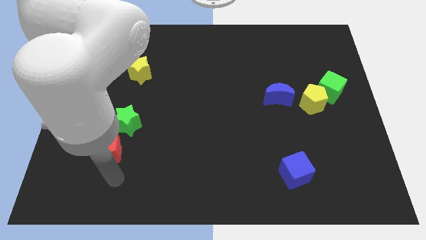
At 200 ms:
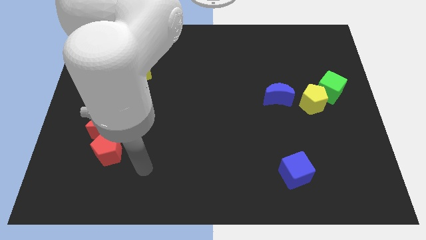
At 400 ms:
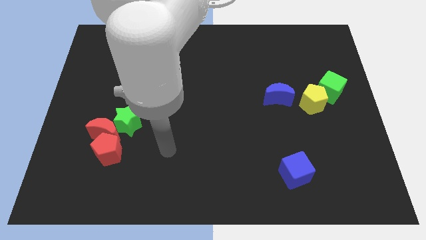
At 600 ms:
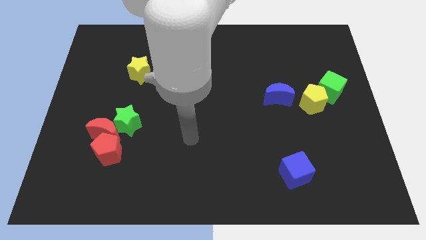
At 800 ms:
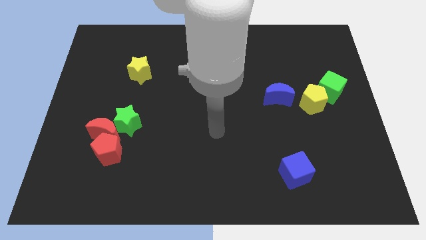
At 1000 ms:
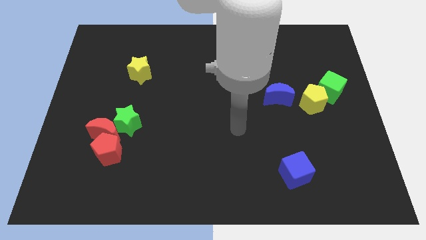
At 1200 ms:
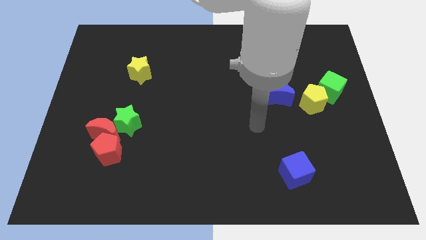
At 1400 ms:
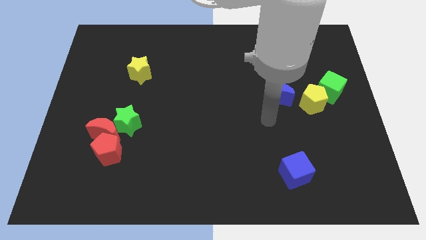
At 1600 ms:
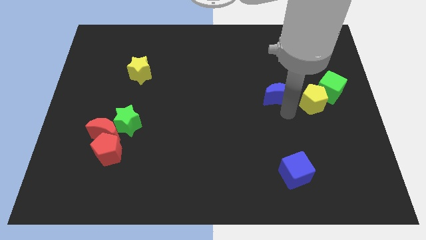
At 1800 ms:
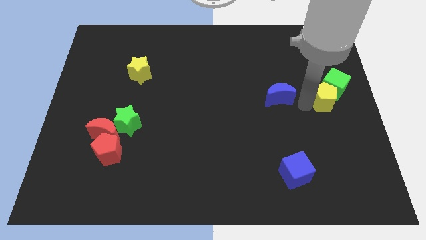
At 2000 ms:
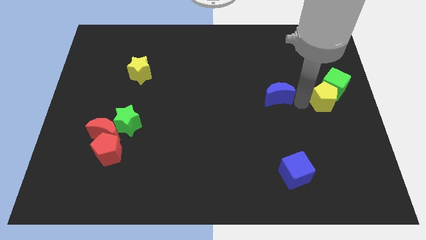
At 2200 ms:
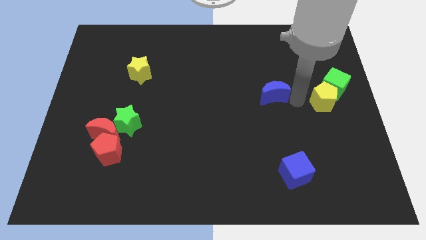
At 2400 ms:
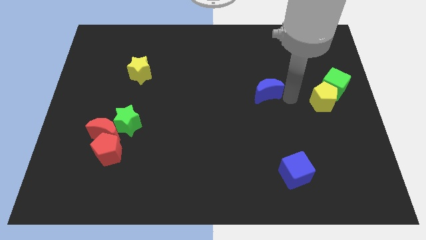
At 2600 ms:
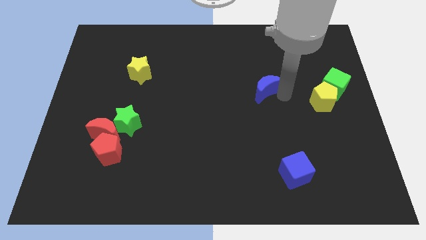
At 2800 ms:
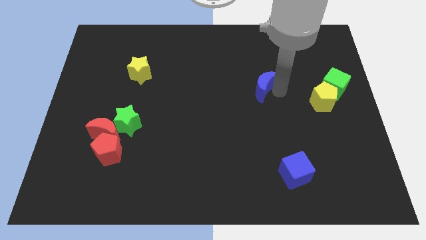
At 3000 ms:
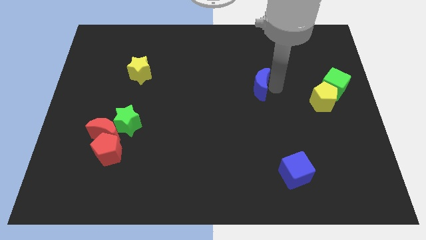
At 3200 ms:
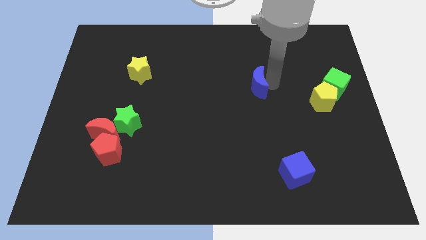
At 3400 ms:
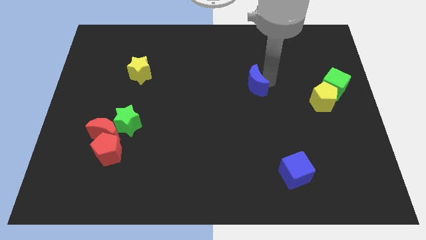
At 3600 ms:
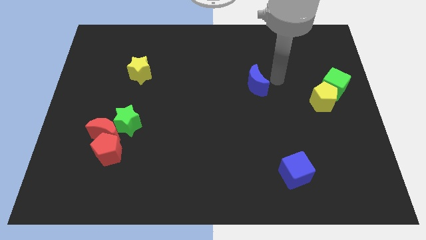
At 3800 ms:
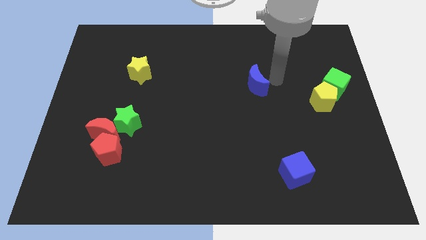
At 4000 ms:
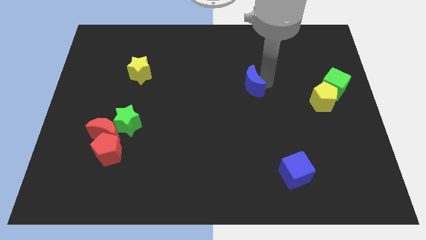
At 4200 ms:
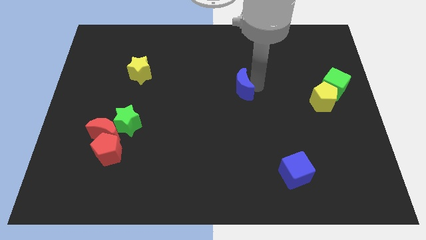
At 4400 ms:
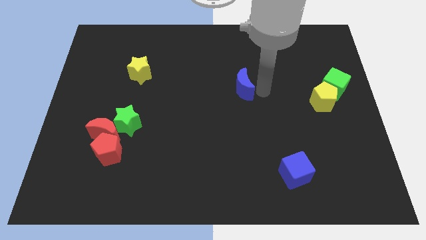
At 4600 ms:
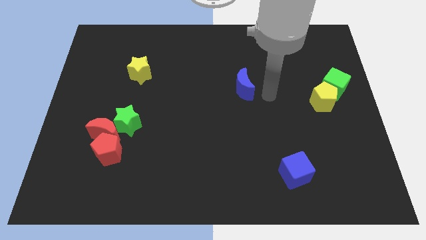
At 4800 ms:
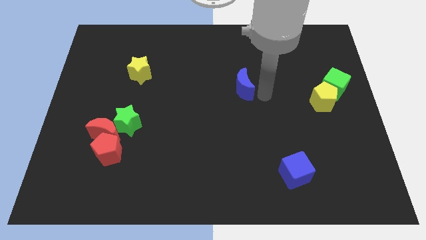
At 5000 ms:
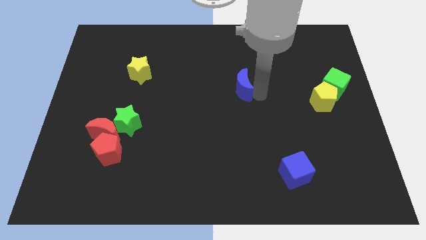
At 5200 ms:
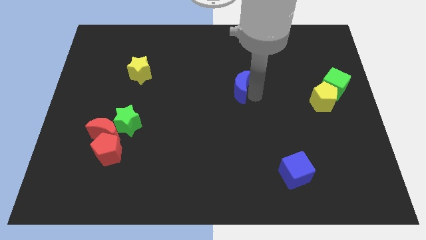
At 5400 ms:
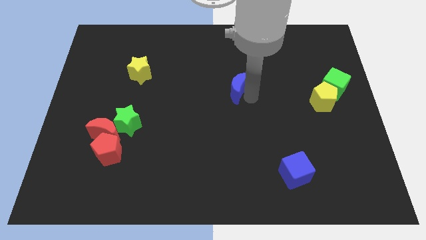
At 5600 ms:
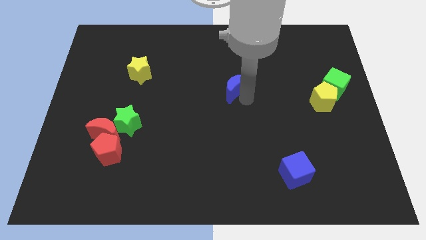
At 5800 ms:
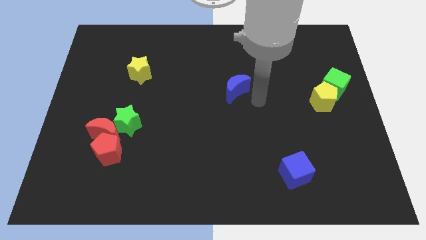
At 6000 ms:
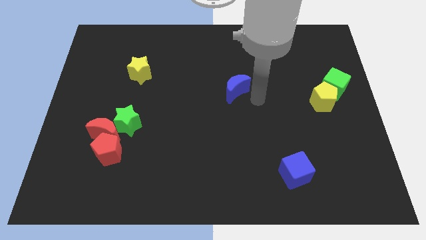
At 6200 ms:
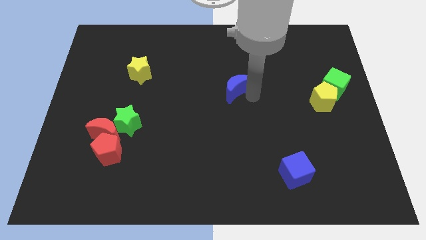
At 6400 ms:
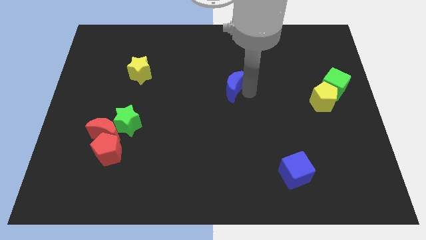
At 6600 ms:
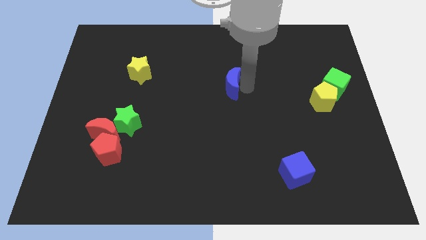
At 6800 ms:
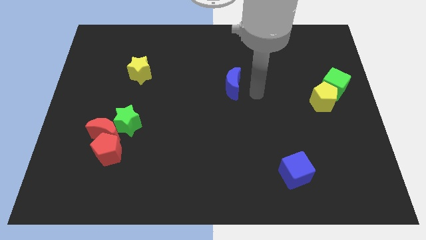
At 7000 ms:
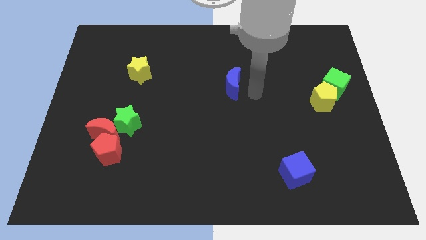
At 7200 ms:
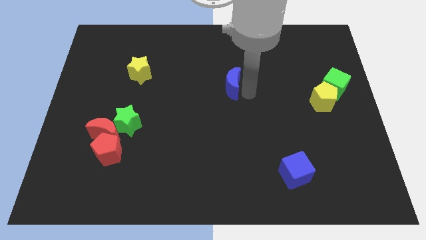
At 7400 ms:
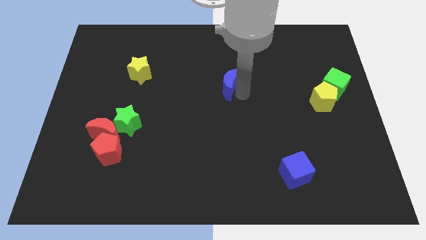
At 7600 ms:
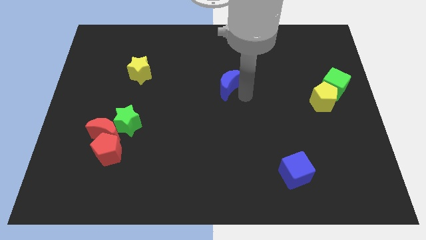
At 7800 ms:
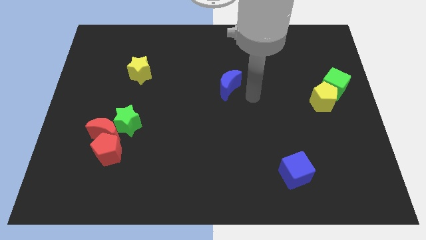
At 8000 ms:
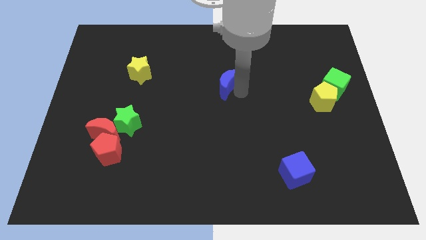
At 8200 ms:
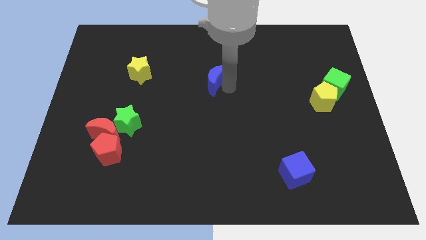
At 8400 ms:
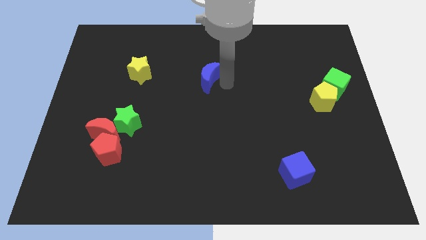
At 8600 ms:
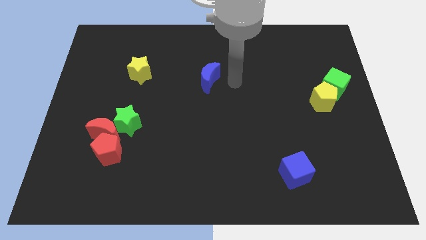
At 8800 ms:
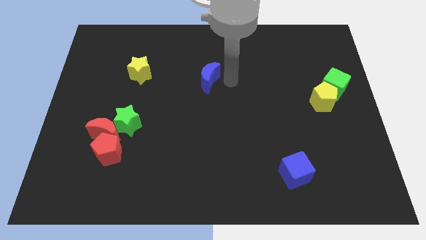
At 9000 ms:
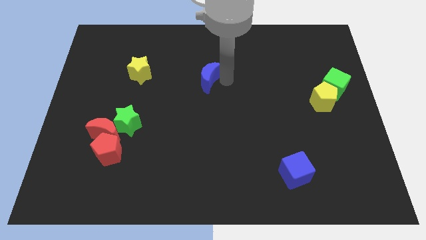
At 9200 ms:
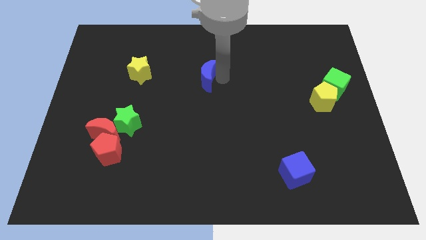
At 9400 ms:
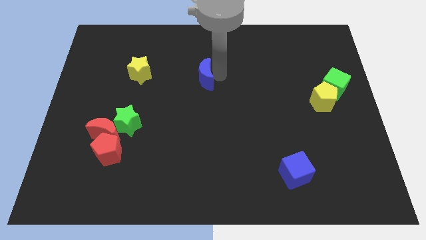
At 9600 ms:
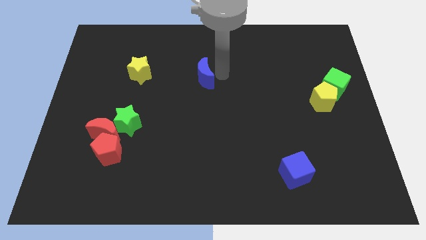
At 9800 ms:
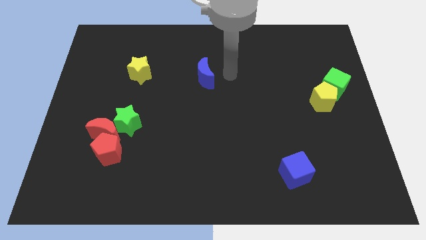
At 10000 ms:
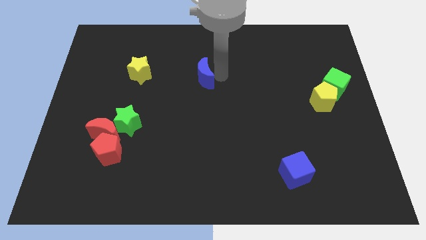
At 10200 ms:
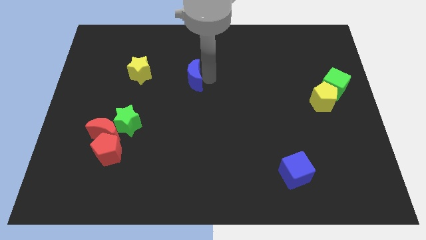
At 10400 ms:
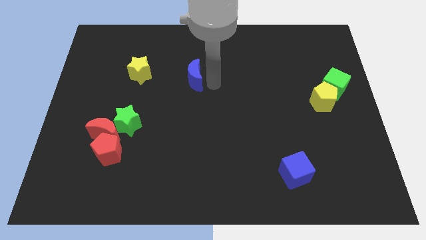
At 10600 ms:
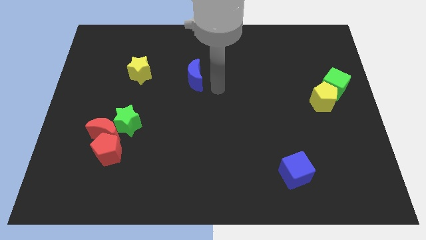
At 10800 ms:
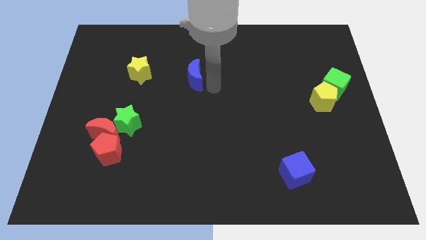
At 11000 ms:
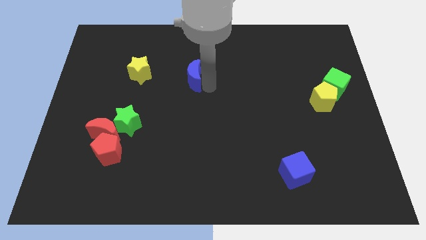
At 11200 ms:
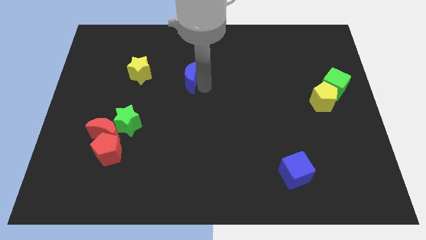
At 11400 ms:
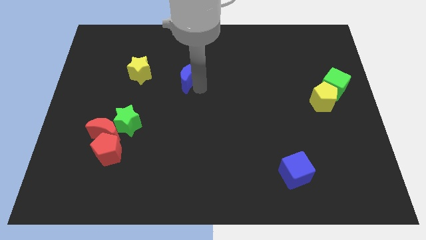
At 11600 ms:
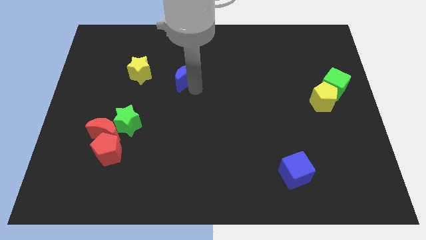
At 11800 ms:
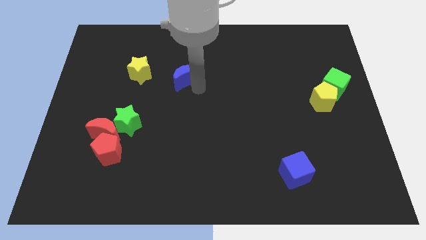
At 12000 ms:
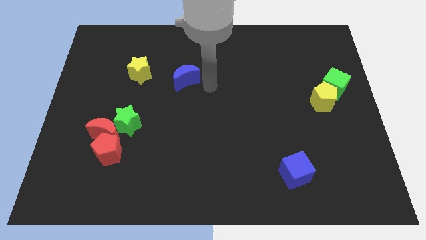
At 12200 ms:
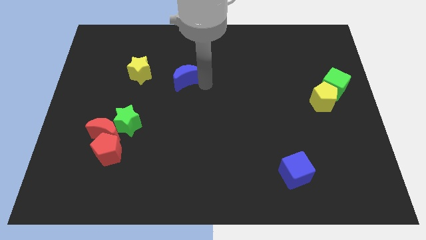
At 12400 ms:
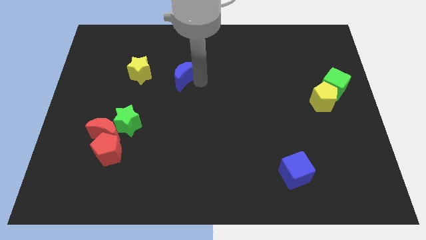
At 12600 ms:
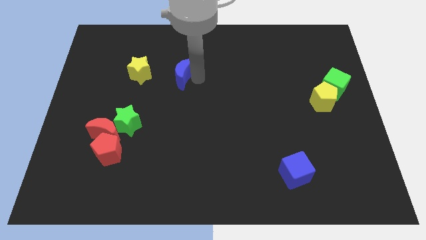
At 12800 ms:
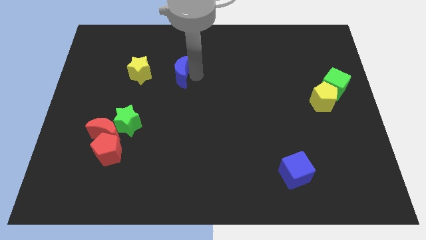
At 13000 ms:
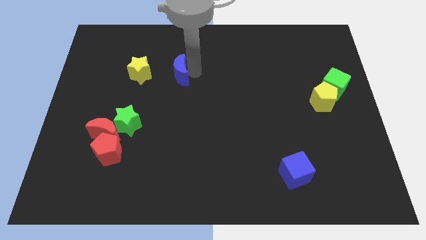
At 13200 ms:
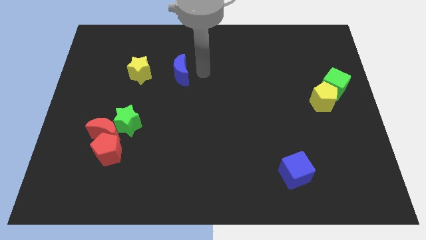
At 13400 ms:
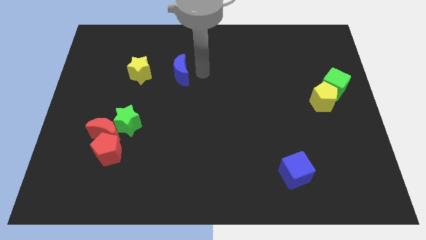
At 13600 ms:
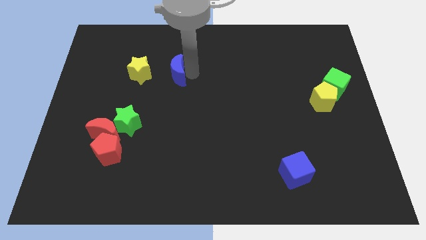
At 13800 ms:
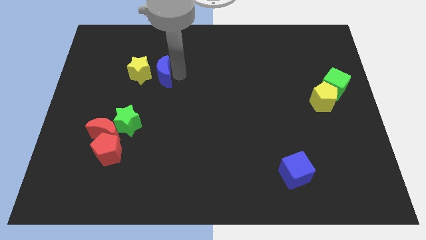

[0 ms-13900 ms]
slide the blue moon next to the yellow star

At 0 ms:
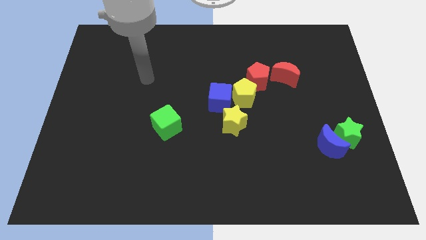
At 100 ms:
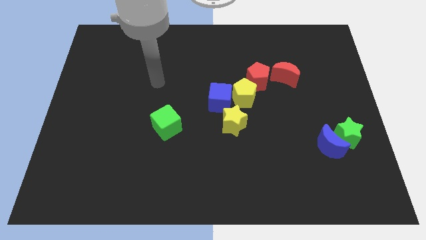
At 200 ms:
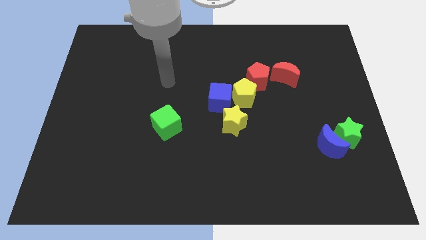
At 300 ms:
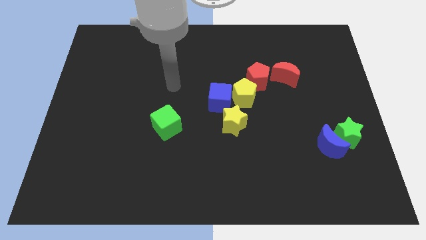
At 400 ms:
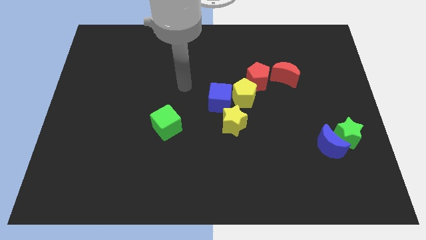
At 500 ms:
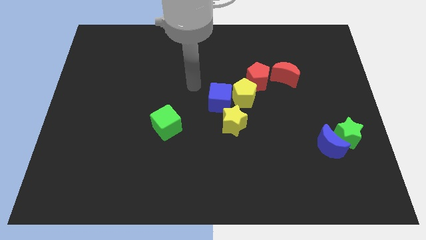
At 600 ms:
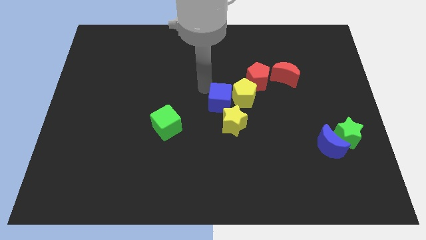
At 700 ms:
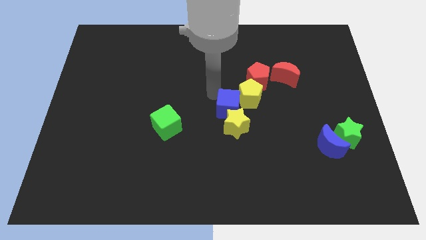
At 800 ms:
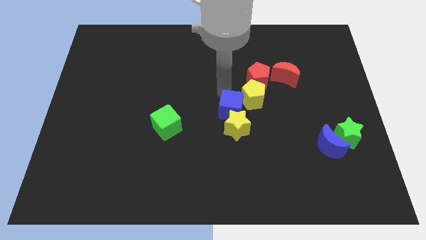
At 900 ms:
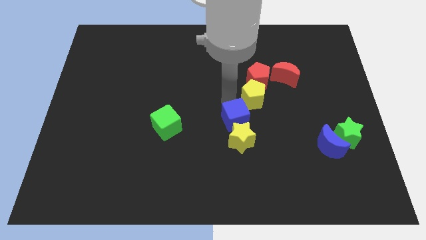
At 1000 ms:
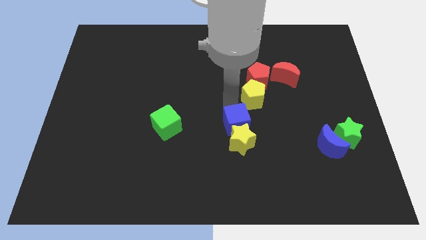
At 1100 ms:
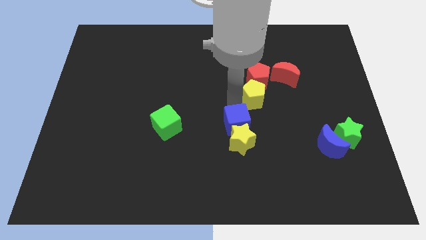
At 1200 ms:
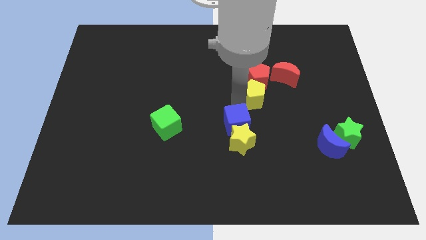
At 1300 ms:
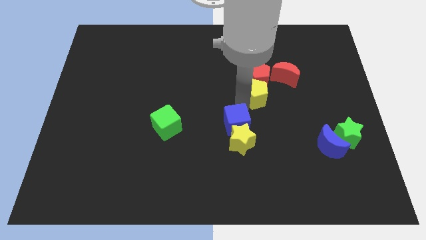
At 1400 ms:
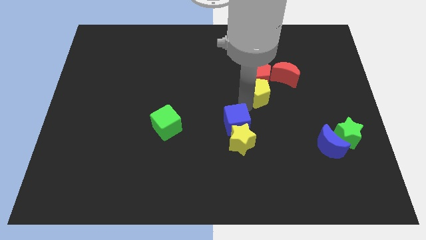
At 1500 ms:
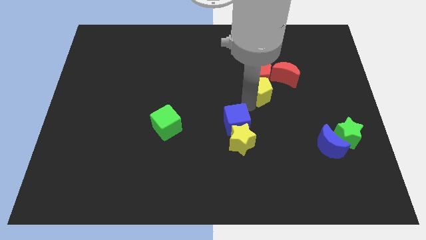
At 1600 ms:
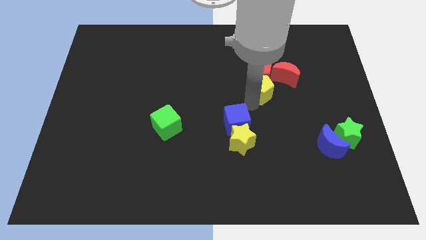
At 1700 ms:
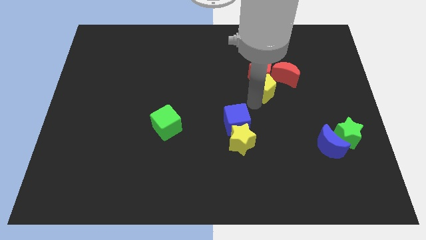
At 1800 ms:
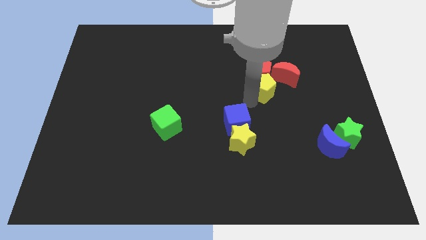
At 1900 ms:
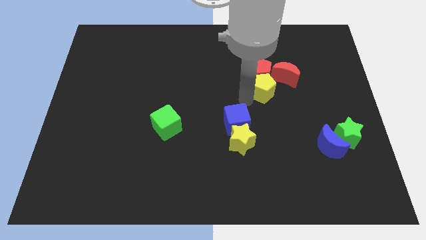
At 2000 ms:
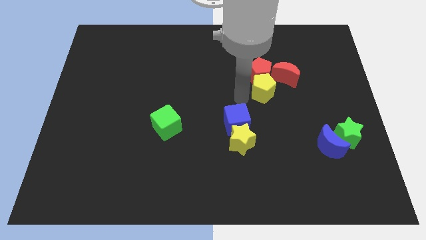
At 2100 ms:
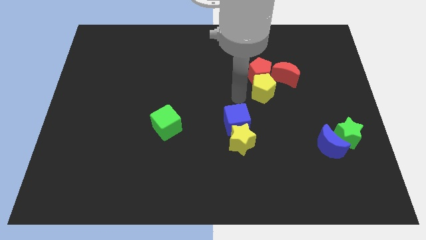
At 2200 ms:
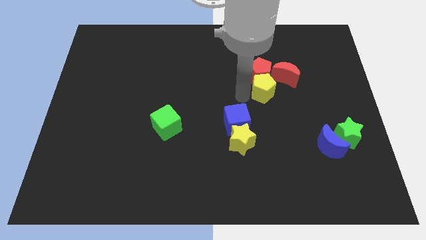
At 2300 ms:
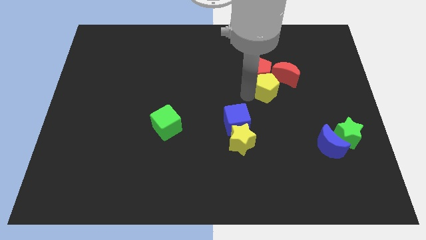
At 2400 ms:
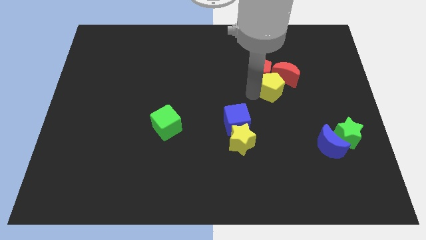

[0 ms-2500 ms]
put the yellow pentagon close to the red moon
